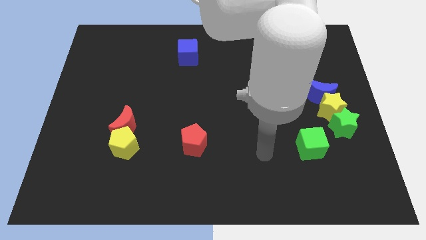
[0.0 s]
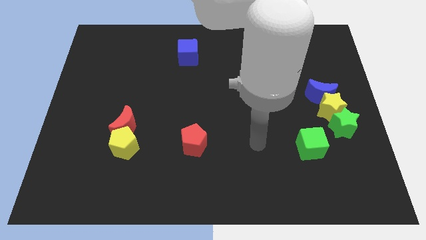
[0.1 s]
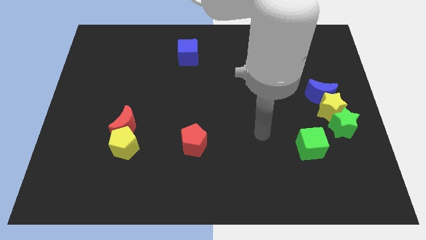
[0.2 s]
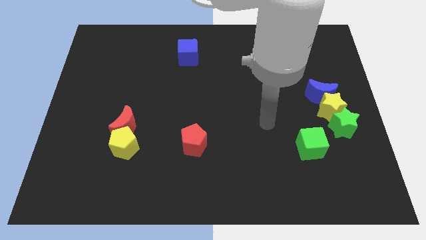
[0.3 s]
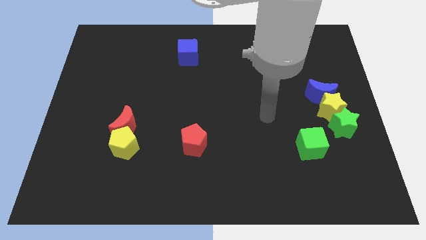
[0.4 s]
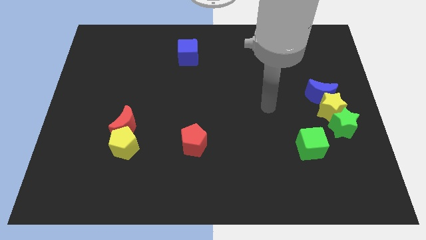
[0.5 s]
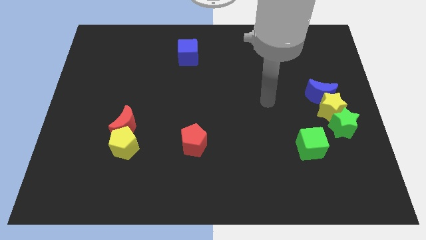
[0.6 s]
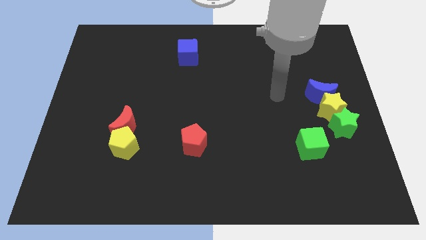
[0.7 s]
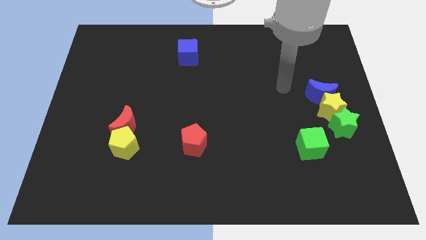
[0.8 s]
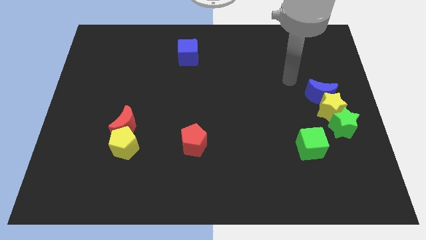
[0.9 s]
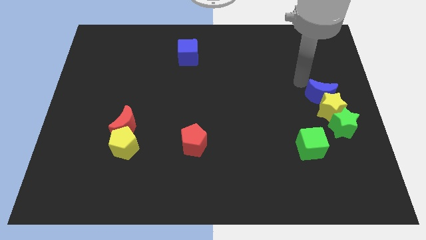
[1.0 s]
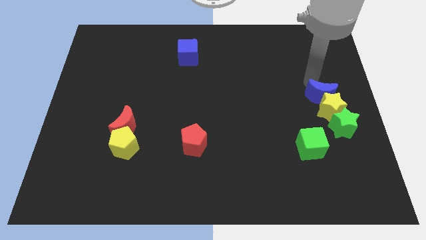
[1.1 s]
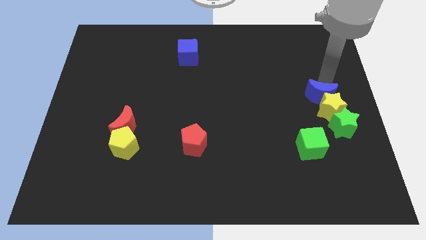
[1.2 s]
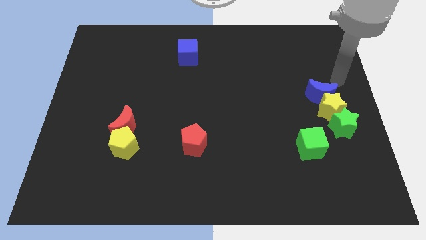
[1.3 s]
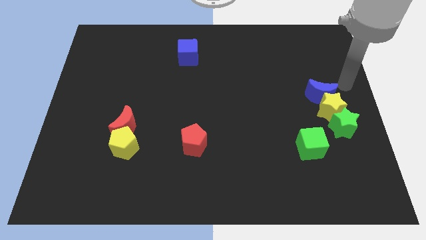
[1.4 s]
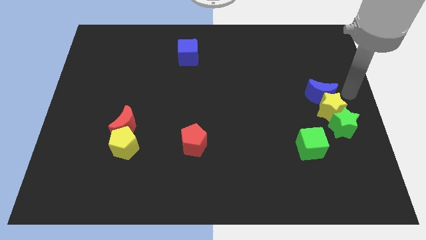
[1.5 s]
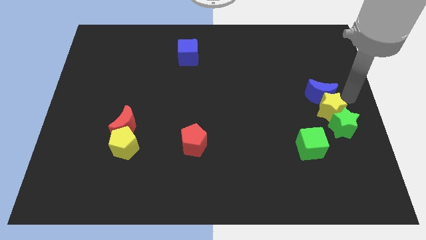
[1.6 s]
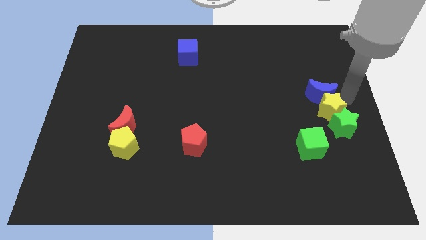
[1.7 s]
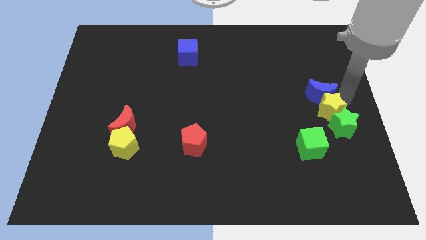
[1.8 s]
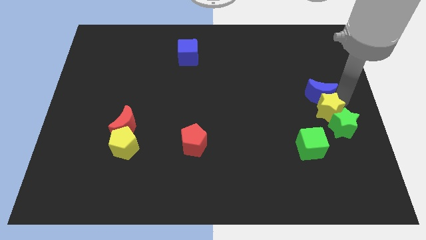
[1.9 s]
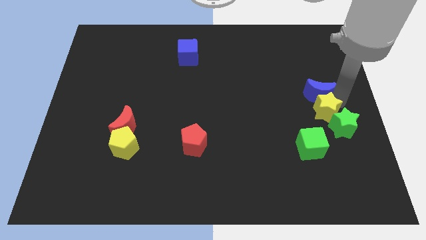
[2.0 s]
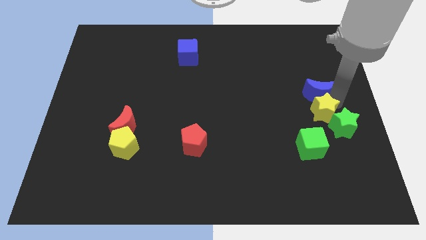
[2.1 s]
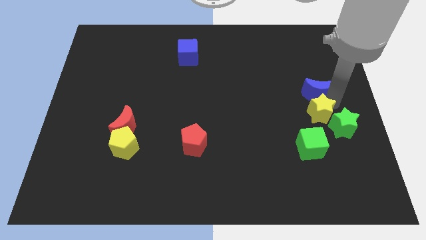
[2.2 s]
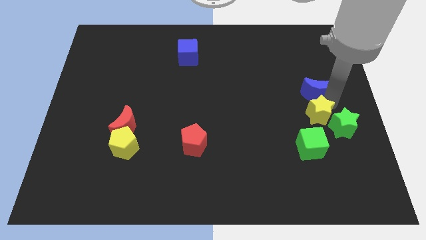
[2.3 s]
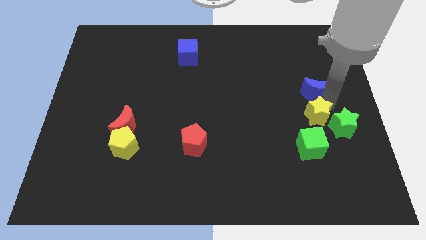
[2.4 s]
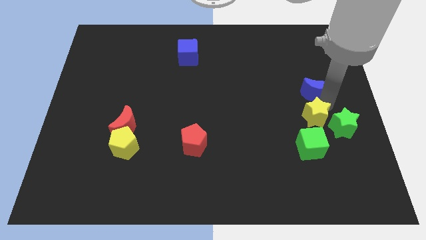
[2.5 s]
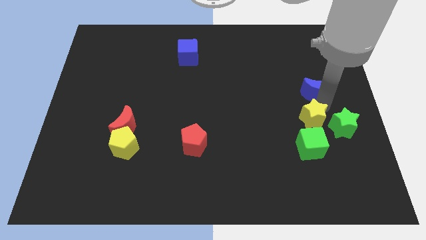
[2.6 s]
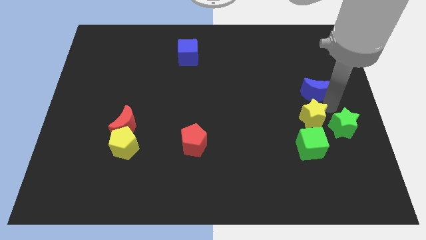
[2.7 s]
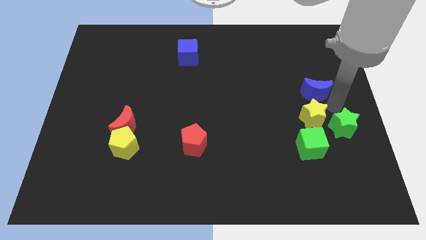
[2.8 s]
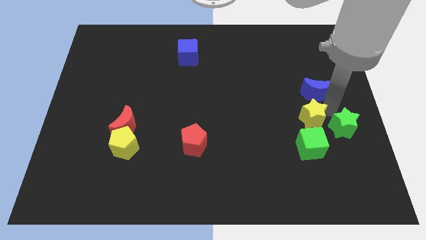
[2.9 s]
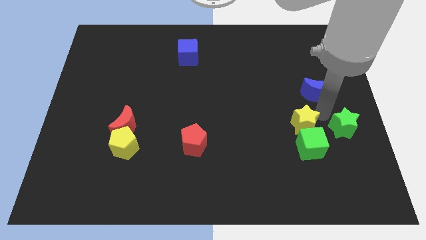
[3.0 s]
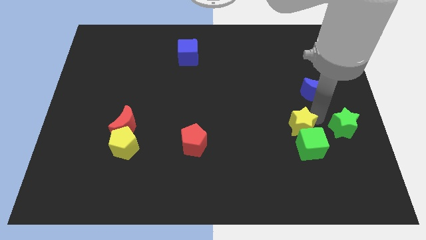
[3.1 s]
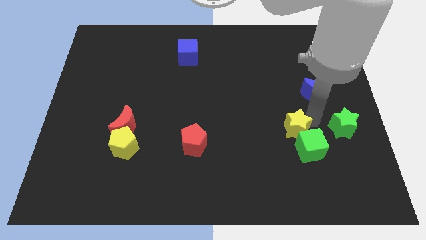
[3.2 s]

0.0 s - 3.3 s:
separate the yellow star from the green star and blue moon

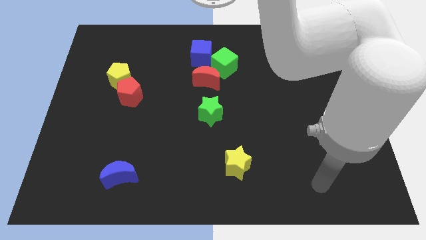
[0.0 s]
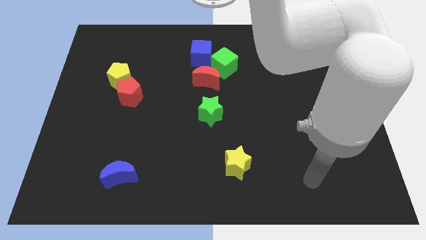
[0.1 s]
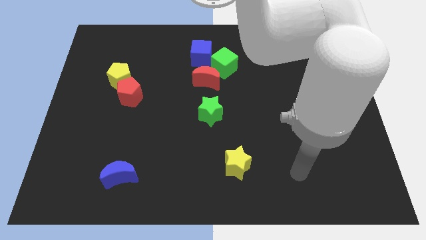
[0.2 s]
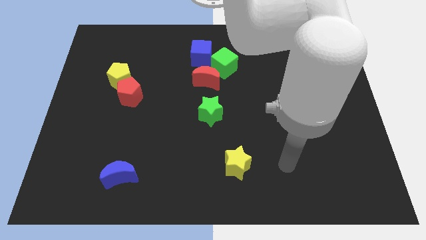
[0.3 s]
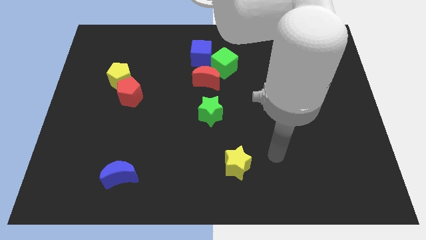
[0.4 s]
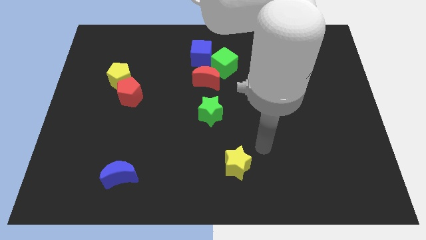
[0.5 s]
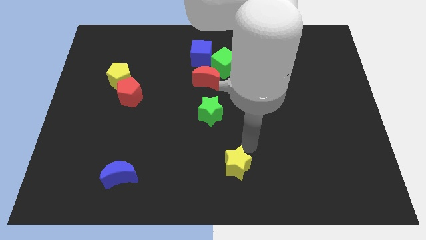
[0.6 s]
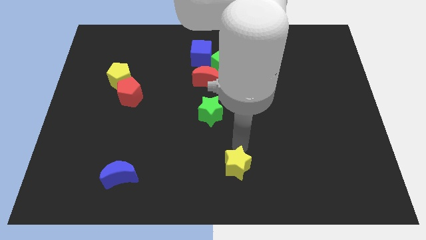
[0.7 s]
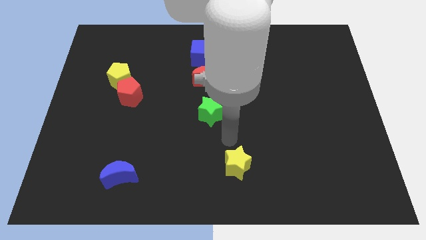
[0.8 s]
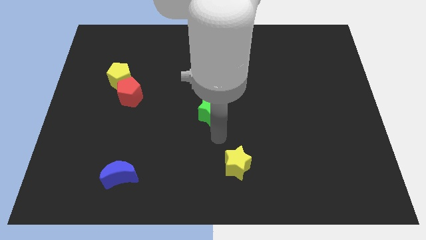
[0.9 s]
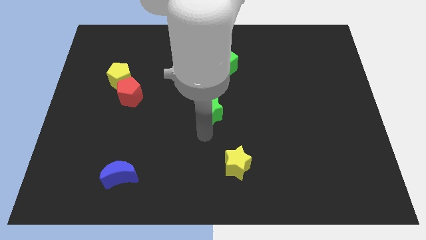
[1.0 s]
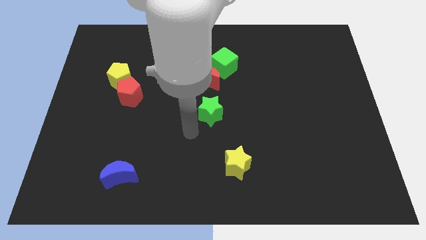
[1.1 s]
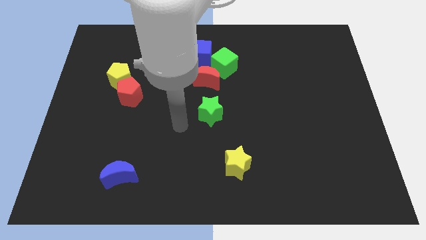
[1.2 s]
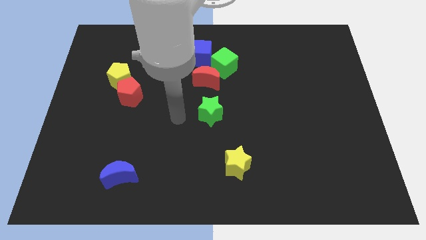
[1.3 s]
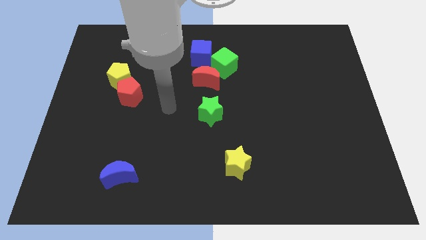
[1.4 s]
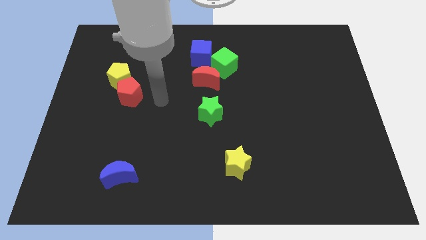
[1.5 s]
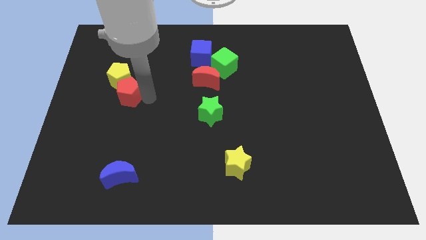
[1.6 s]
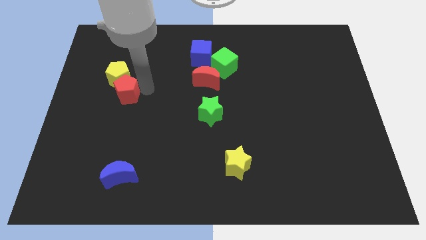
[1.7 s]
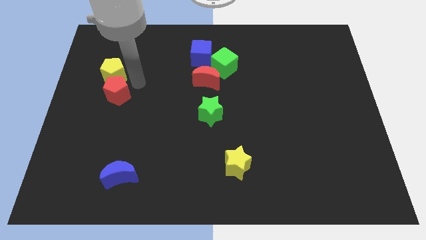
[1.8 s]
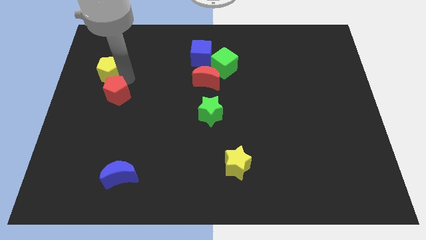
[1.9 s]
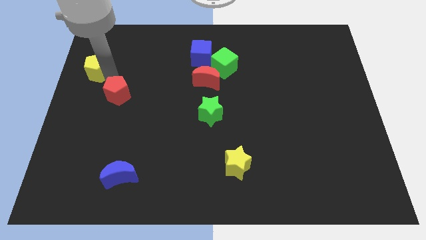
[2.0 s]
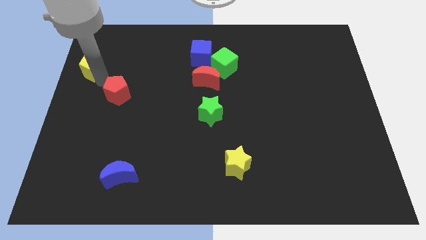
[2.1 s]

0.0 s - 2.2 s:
pull the red pentagon apart from the yellow pentagon

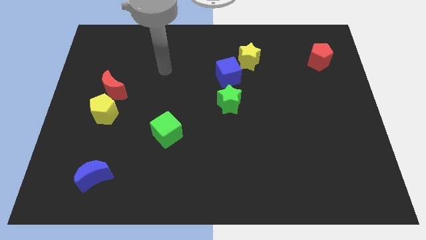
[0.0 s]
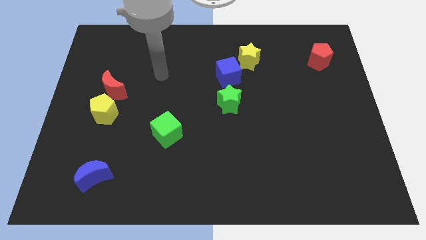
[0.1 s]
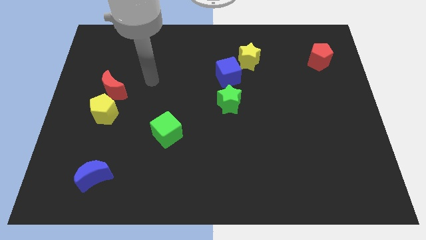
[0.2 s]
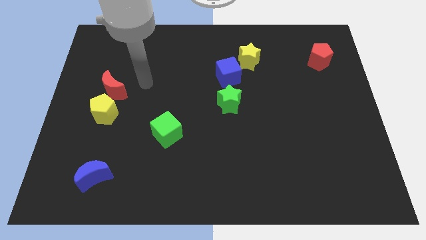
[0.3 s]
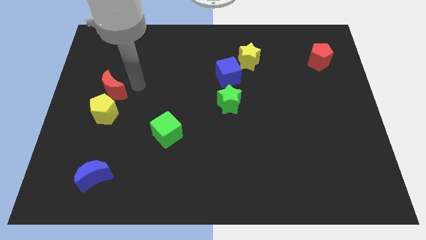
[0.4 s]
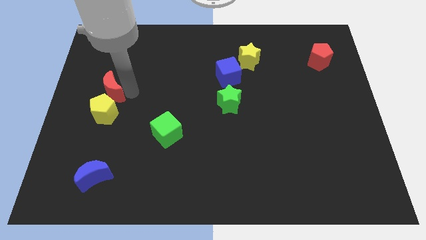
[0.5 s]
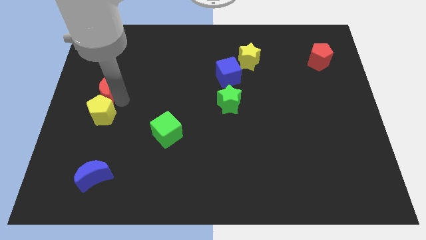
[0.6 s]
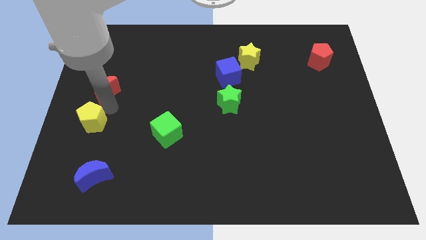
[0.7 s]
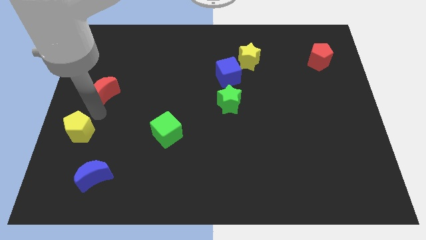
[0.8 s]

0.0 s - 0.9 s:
separate the red moon from the yellow pentagon

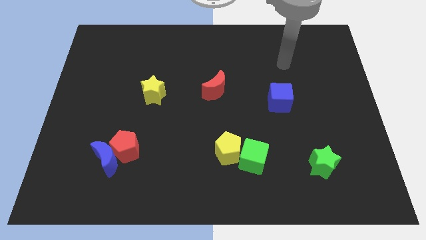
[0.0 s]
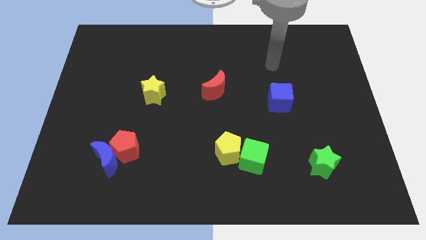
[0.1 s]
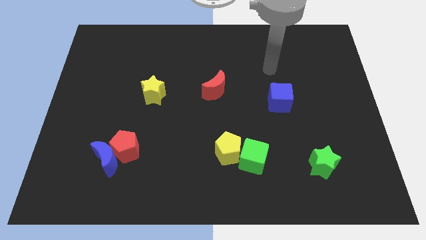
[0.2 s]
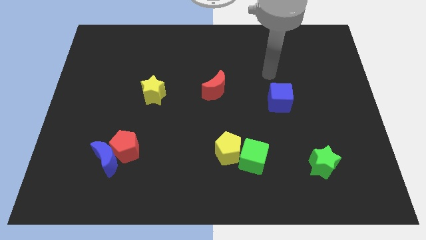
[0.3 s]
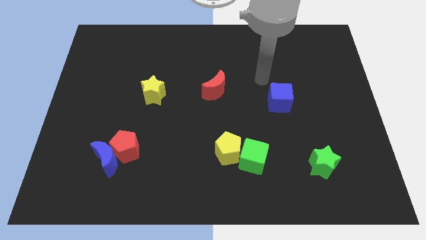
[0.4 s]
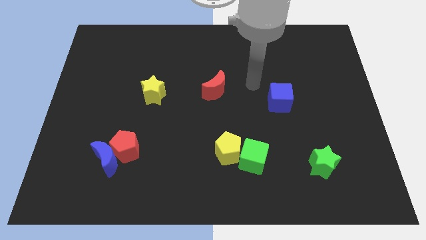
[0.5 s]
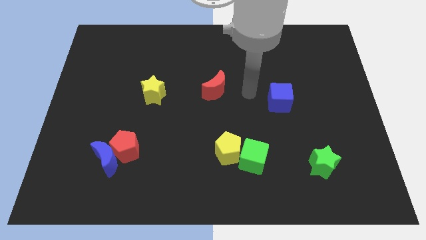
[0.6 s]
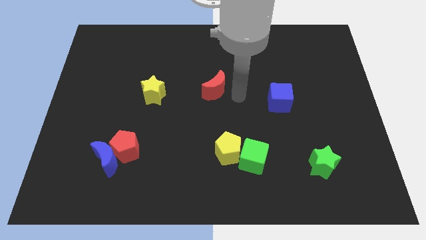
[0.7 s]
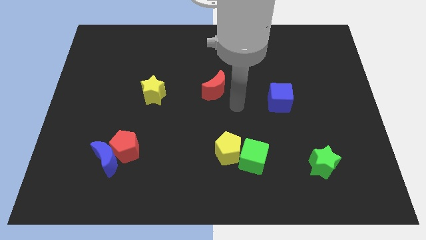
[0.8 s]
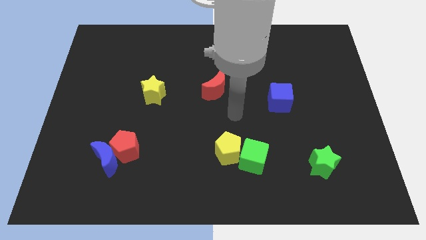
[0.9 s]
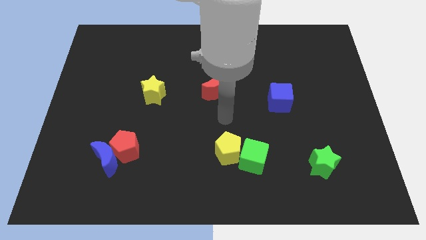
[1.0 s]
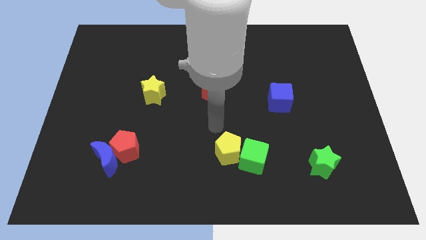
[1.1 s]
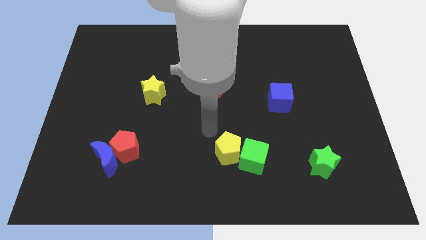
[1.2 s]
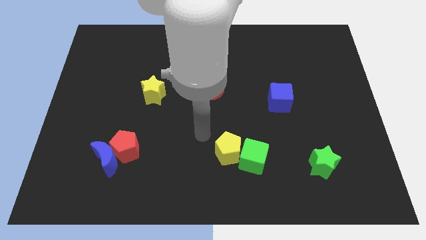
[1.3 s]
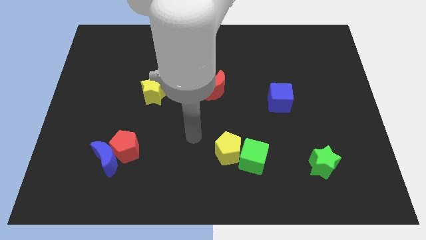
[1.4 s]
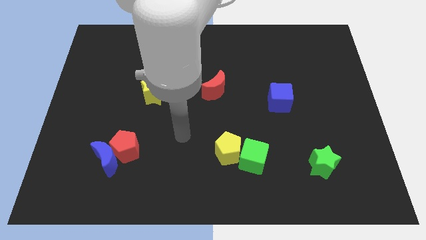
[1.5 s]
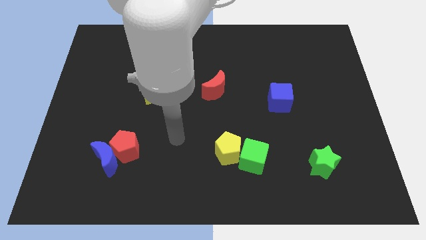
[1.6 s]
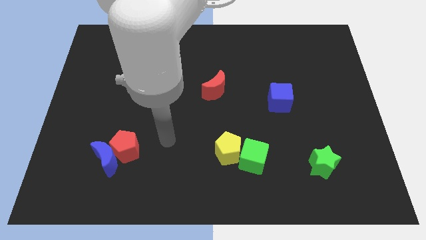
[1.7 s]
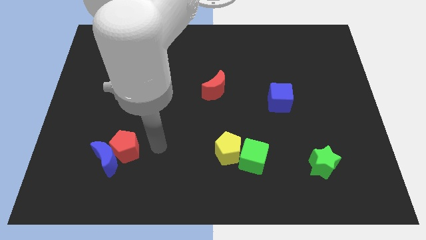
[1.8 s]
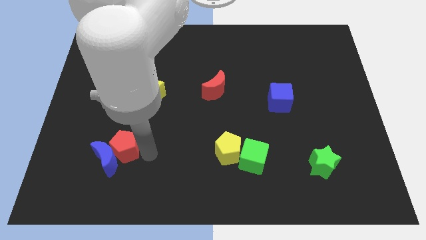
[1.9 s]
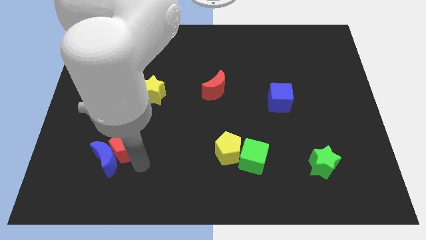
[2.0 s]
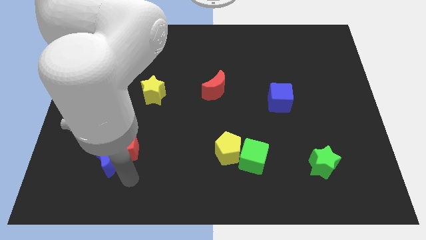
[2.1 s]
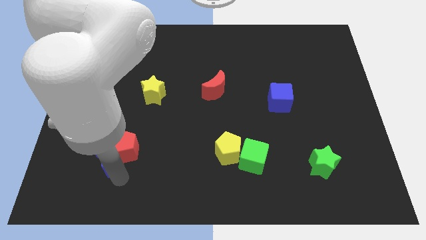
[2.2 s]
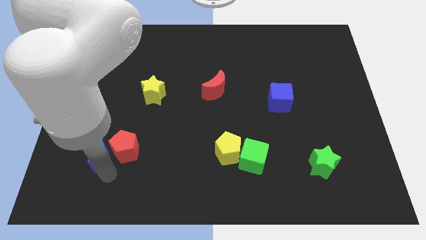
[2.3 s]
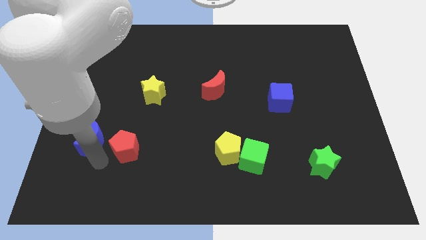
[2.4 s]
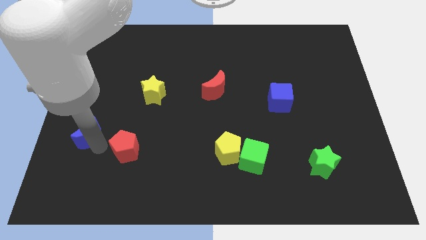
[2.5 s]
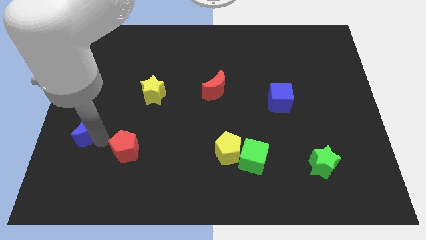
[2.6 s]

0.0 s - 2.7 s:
pull the red pentagon apart from the blue moon

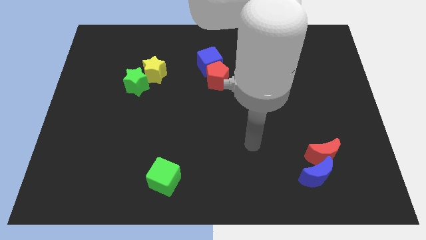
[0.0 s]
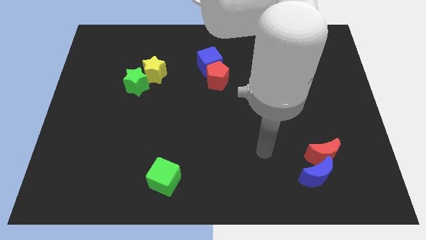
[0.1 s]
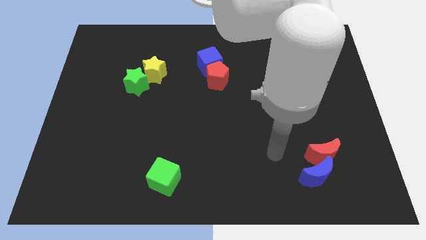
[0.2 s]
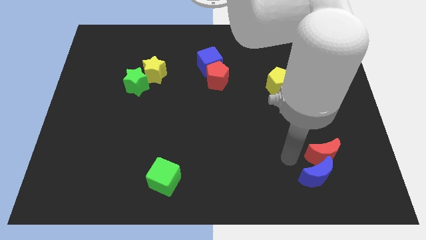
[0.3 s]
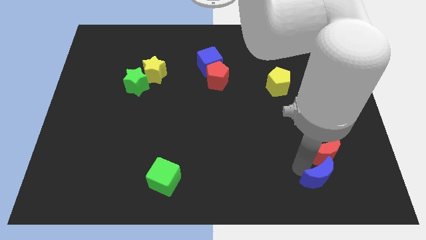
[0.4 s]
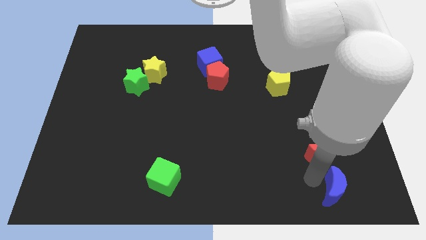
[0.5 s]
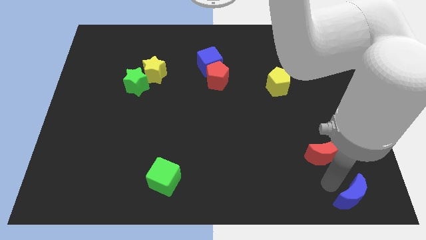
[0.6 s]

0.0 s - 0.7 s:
move the red moon away from the blue moon
